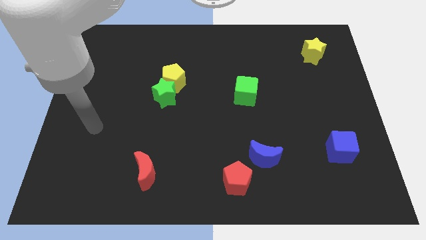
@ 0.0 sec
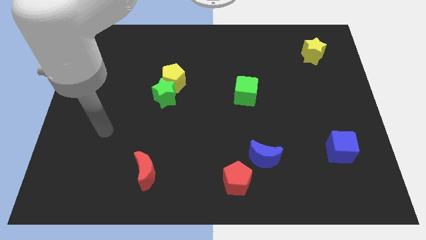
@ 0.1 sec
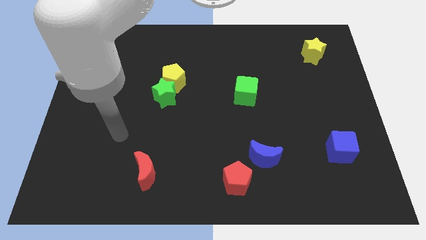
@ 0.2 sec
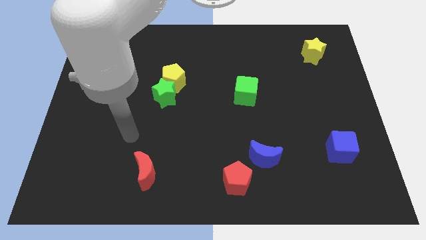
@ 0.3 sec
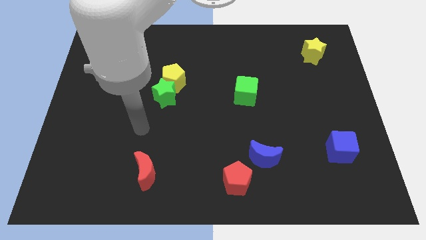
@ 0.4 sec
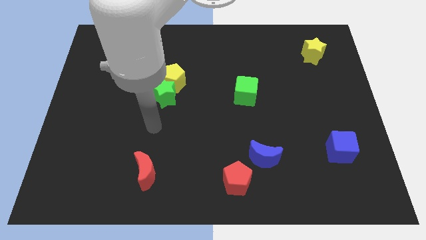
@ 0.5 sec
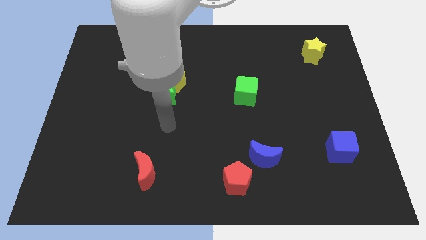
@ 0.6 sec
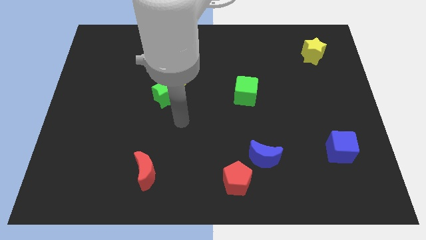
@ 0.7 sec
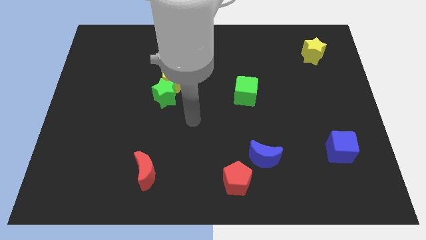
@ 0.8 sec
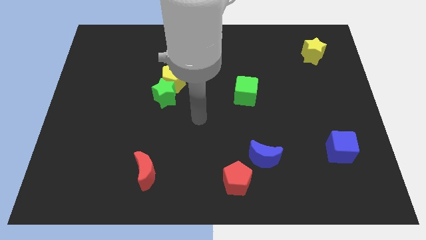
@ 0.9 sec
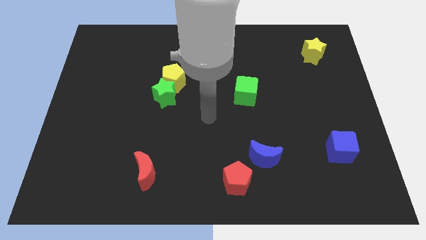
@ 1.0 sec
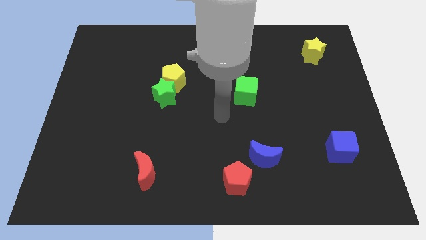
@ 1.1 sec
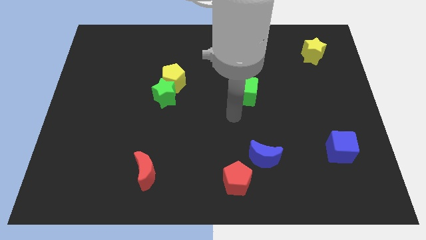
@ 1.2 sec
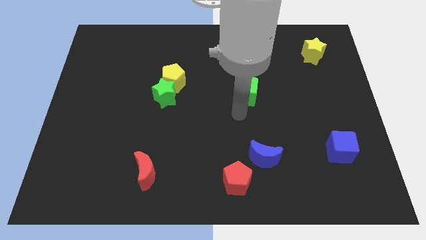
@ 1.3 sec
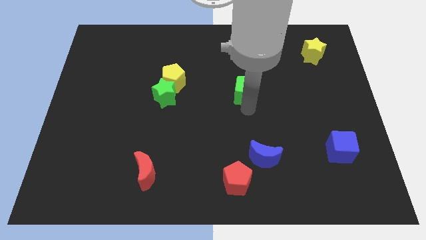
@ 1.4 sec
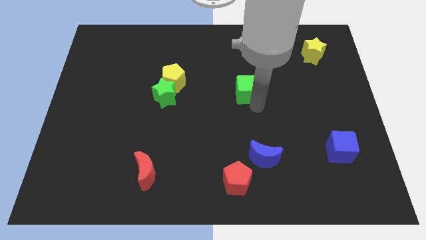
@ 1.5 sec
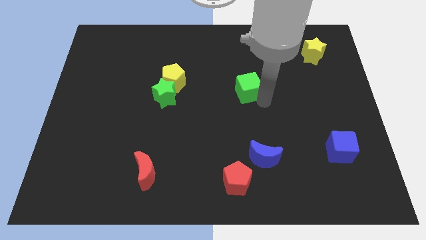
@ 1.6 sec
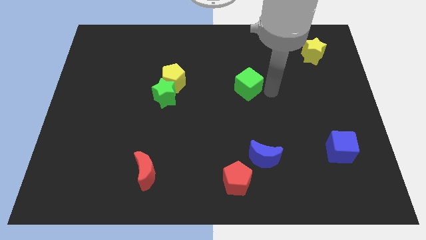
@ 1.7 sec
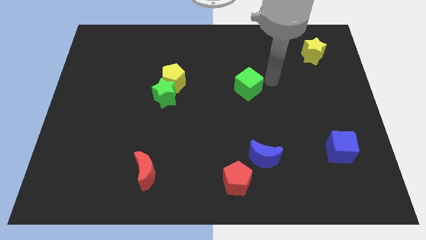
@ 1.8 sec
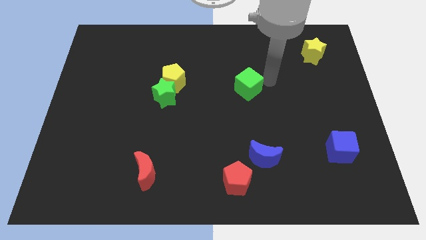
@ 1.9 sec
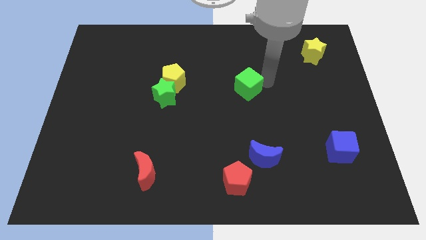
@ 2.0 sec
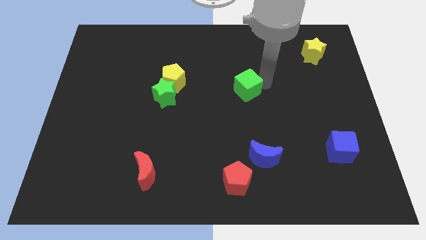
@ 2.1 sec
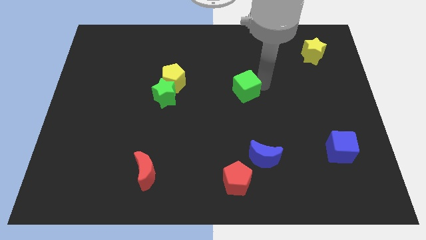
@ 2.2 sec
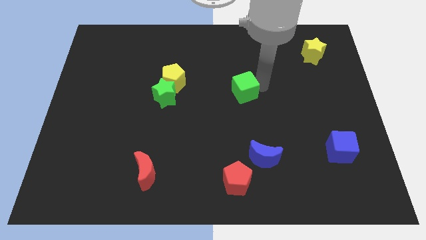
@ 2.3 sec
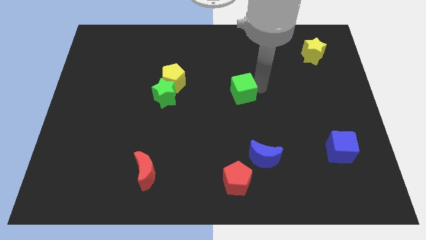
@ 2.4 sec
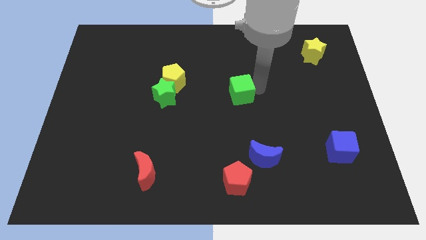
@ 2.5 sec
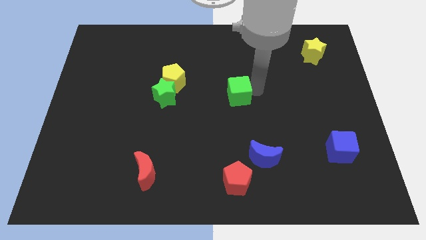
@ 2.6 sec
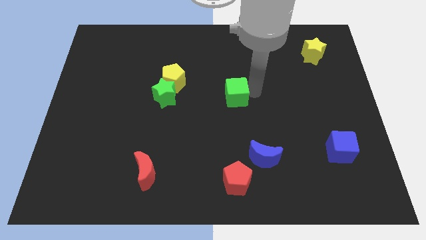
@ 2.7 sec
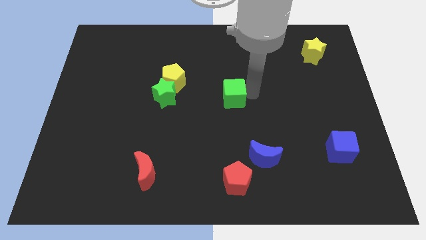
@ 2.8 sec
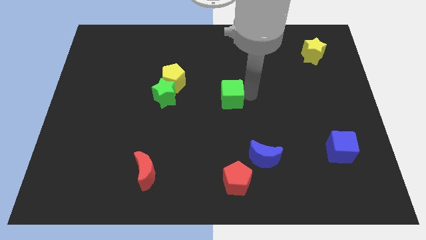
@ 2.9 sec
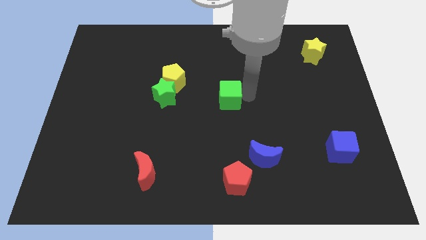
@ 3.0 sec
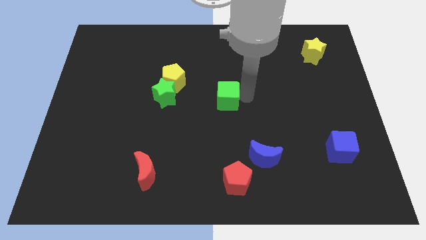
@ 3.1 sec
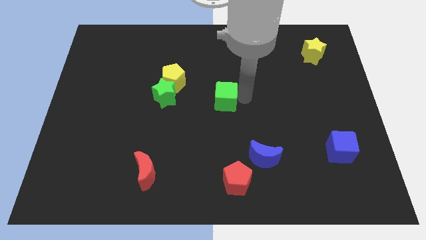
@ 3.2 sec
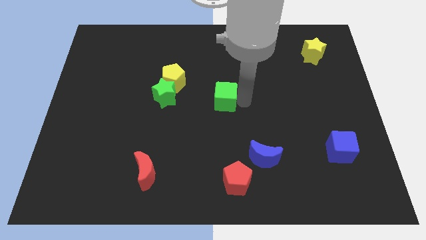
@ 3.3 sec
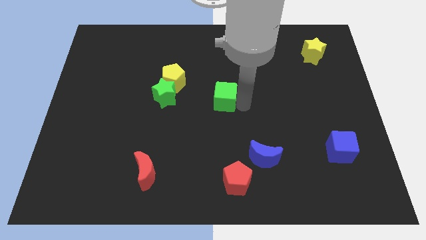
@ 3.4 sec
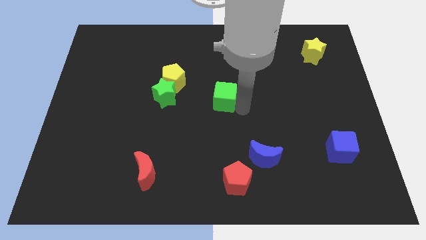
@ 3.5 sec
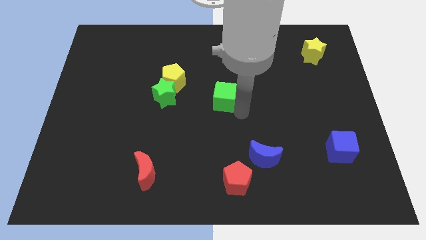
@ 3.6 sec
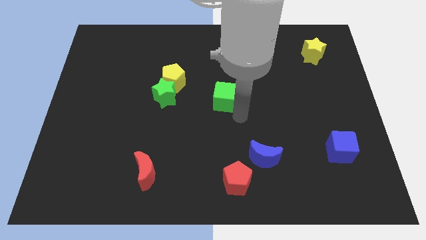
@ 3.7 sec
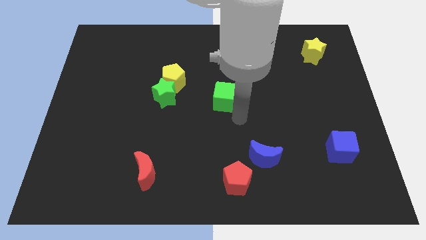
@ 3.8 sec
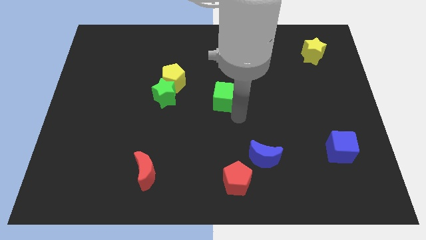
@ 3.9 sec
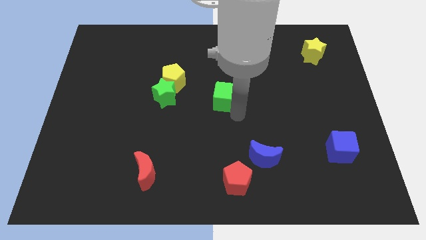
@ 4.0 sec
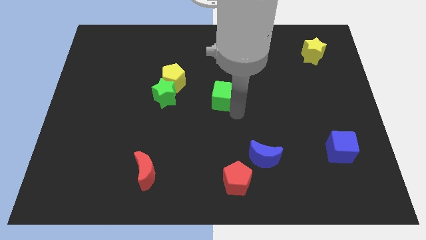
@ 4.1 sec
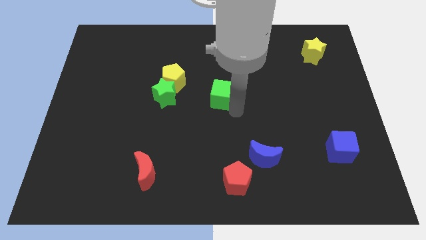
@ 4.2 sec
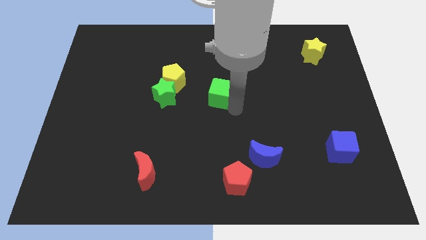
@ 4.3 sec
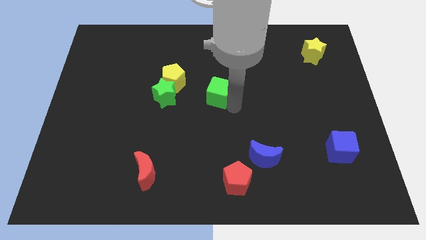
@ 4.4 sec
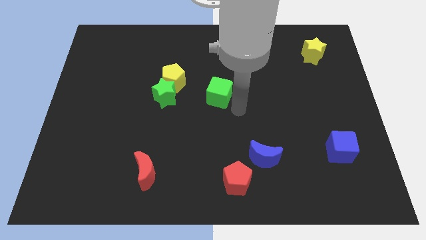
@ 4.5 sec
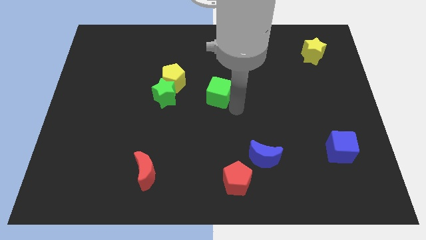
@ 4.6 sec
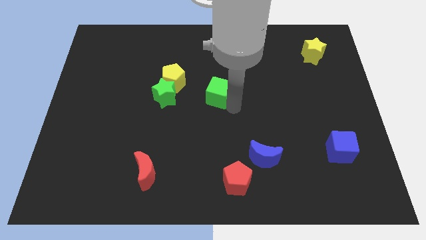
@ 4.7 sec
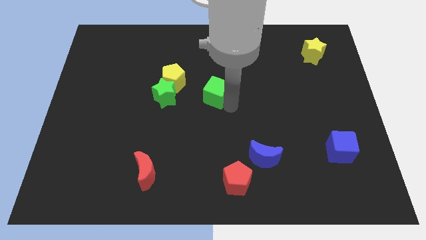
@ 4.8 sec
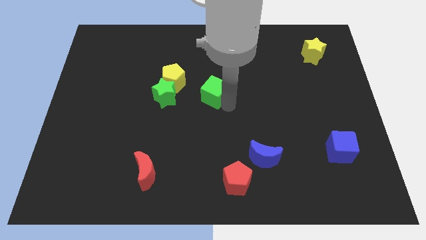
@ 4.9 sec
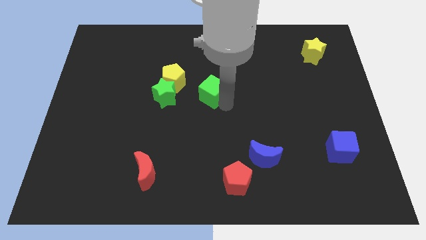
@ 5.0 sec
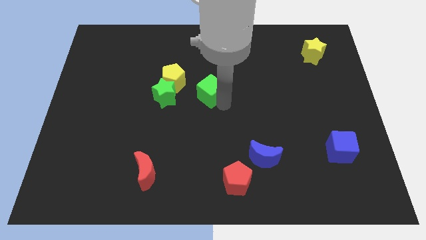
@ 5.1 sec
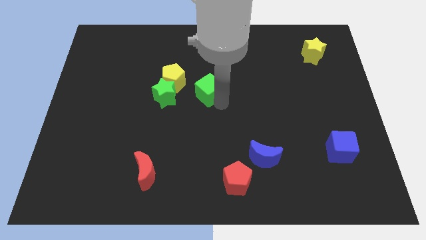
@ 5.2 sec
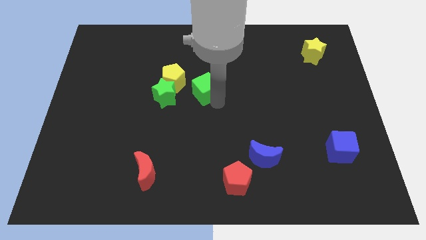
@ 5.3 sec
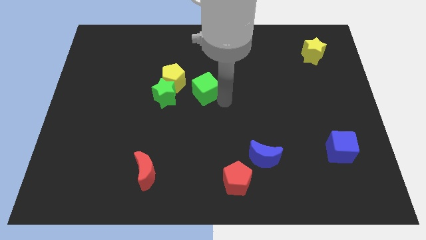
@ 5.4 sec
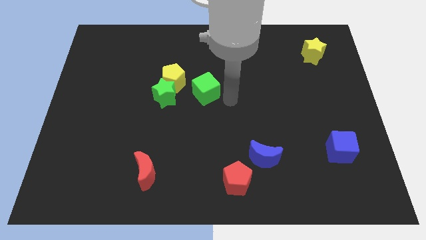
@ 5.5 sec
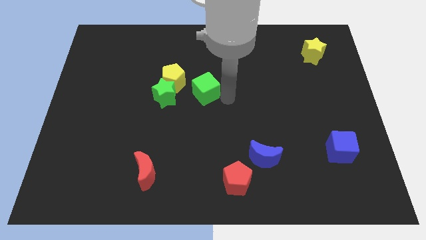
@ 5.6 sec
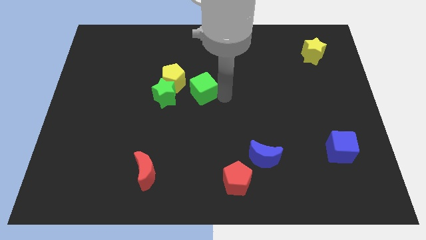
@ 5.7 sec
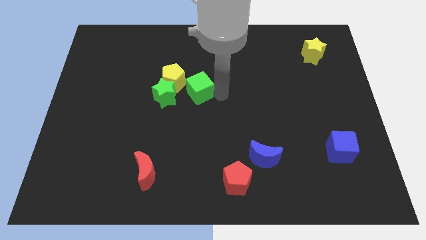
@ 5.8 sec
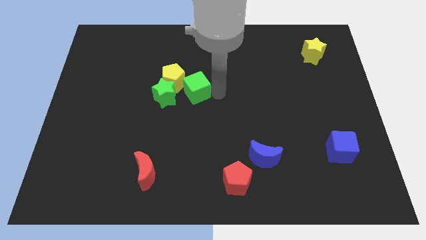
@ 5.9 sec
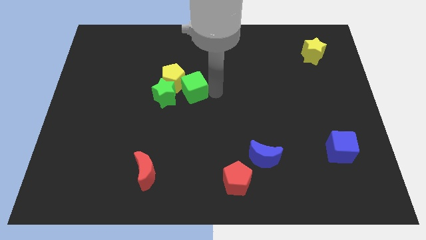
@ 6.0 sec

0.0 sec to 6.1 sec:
slide the green cube next to the yellow pentagon

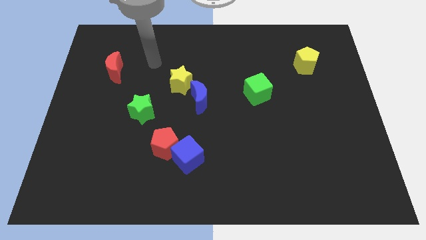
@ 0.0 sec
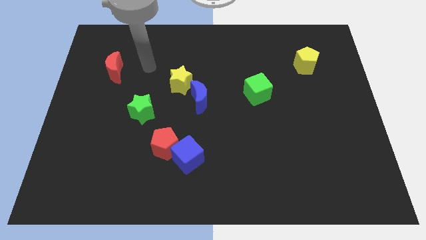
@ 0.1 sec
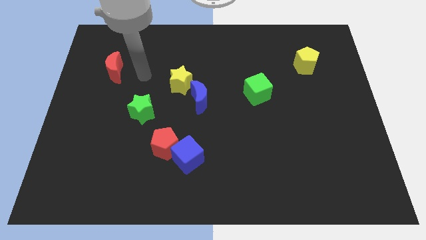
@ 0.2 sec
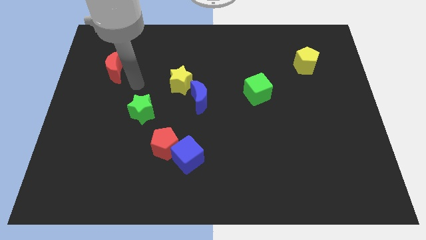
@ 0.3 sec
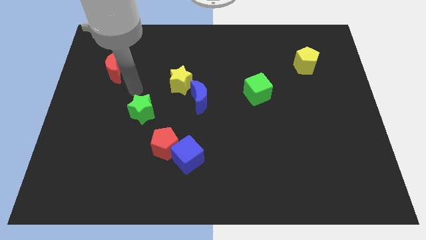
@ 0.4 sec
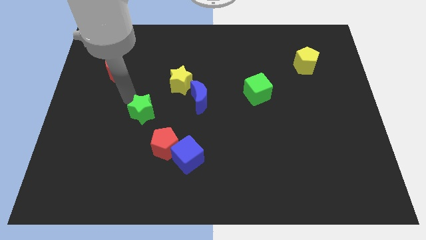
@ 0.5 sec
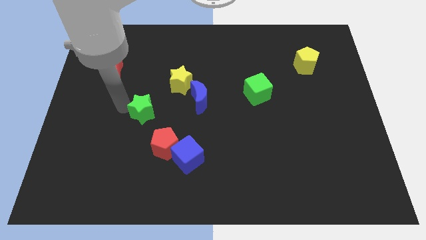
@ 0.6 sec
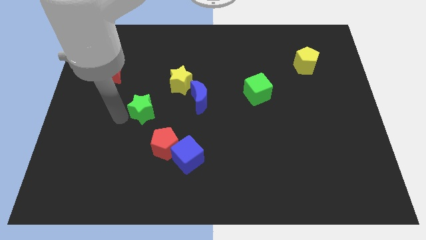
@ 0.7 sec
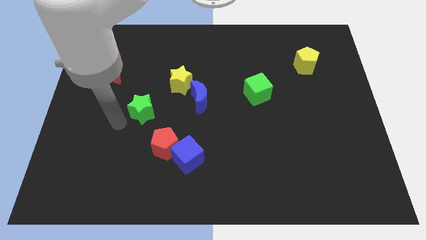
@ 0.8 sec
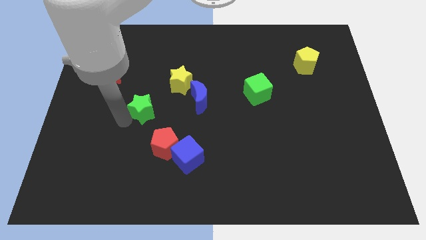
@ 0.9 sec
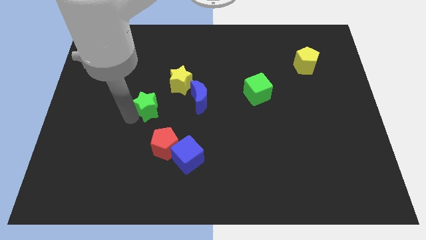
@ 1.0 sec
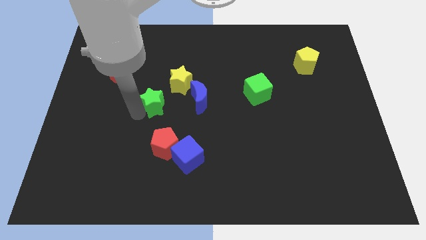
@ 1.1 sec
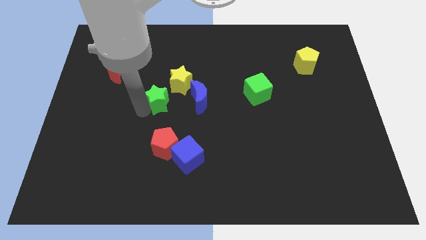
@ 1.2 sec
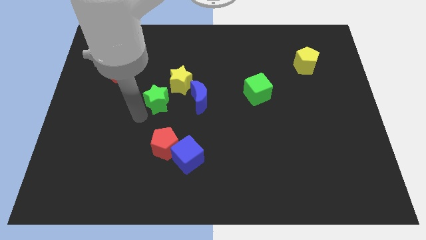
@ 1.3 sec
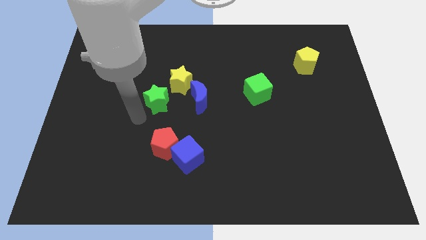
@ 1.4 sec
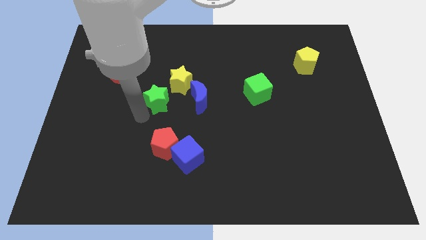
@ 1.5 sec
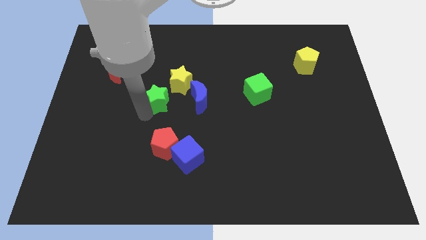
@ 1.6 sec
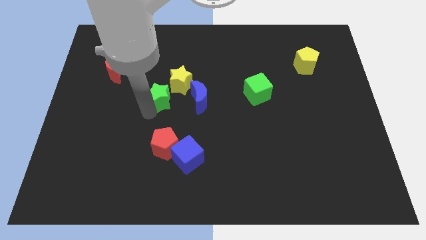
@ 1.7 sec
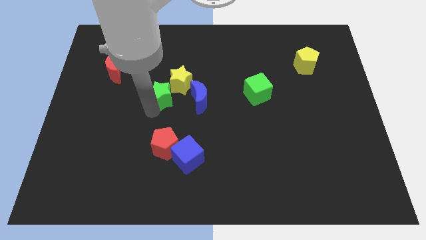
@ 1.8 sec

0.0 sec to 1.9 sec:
move the green star to the yellow star
